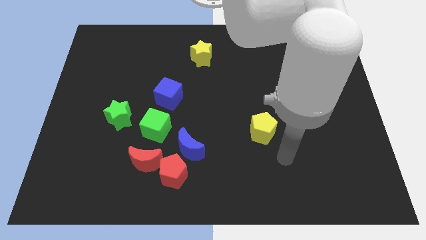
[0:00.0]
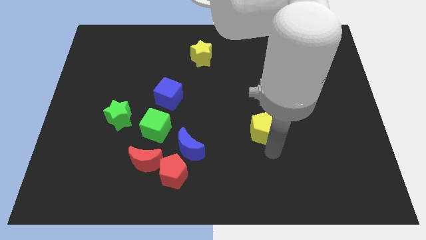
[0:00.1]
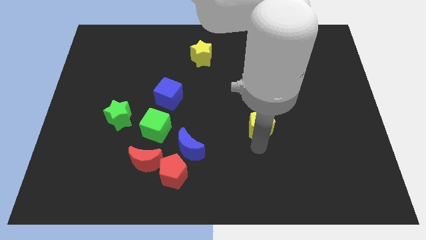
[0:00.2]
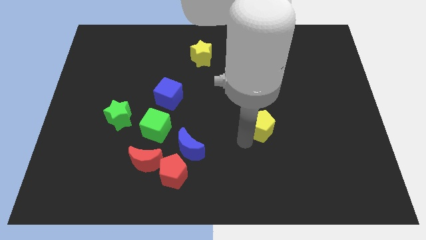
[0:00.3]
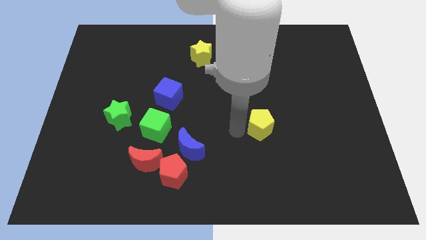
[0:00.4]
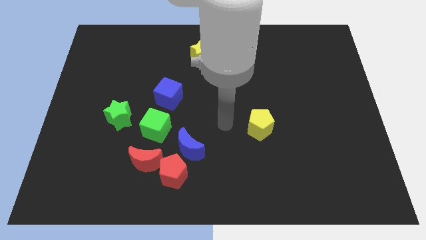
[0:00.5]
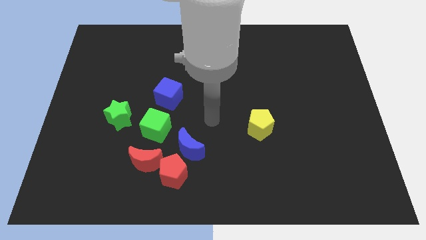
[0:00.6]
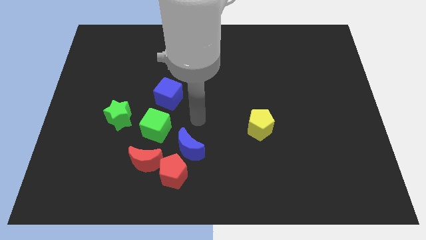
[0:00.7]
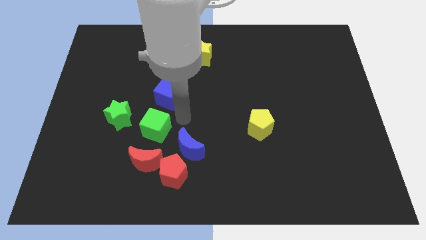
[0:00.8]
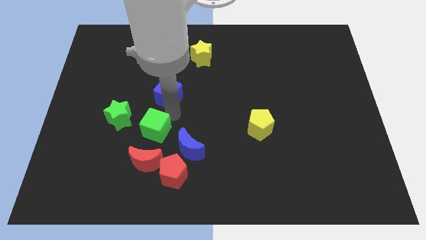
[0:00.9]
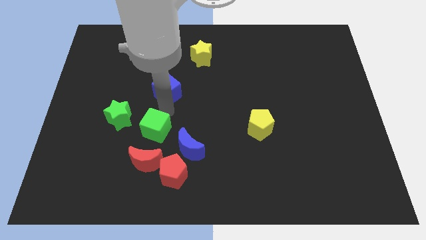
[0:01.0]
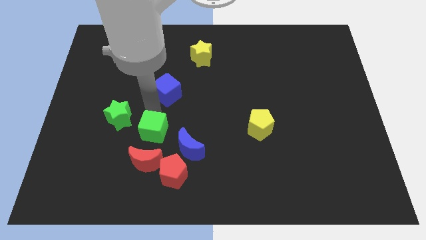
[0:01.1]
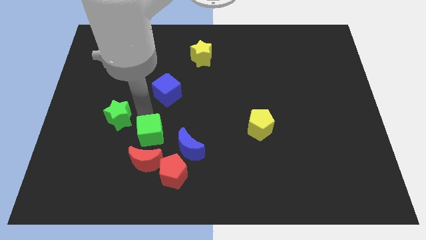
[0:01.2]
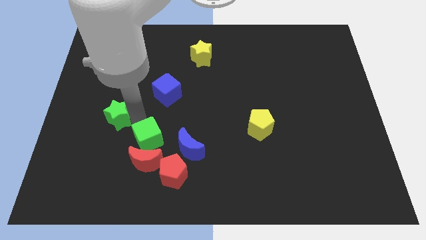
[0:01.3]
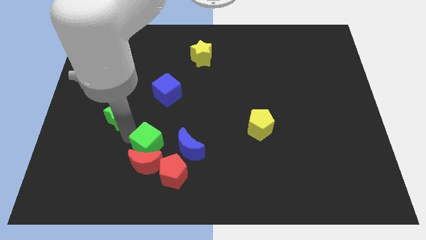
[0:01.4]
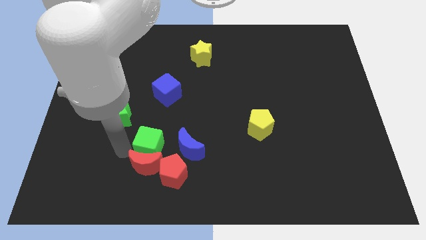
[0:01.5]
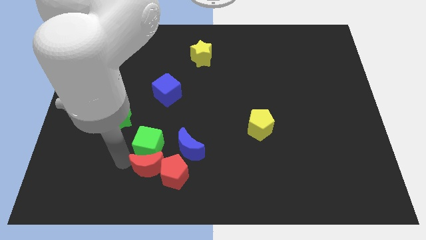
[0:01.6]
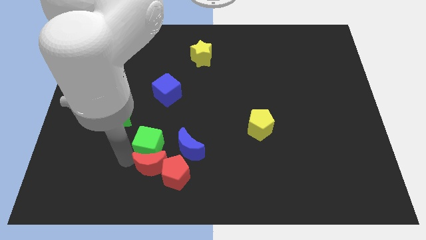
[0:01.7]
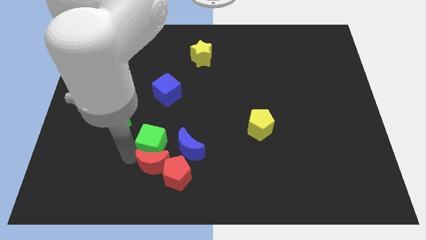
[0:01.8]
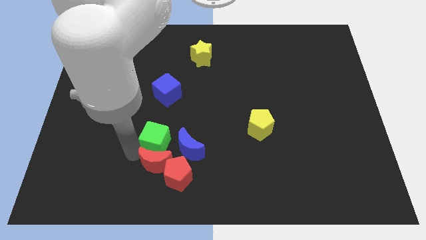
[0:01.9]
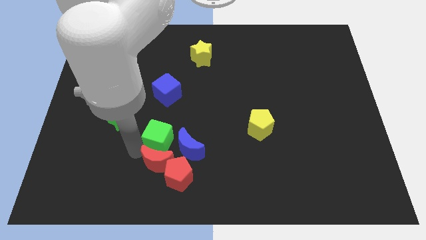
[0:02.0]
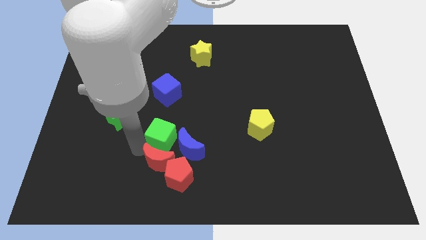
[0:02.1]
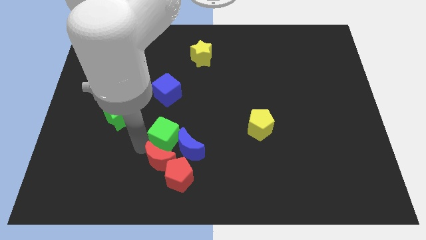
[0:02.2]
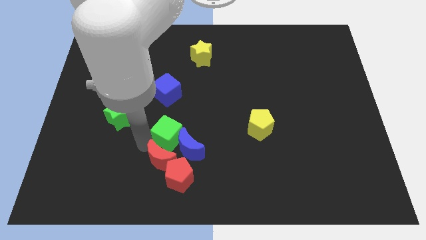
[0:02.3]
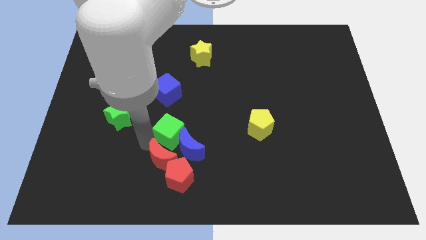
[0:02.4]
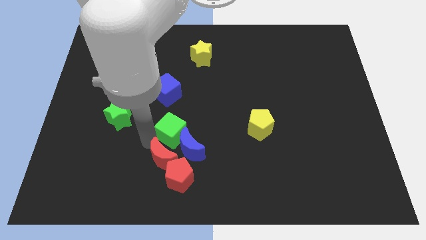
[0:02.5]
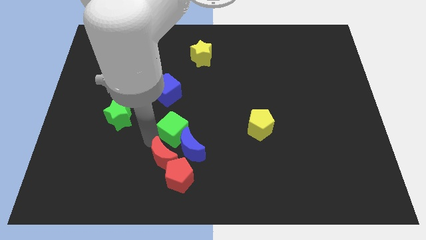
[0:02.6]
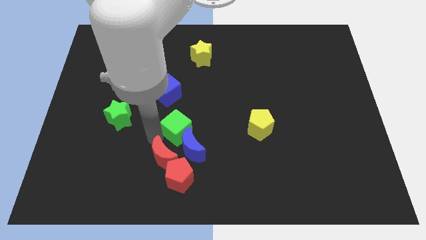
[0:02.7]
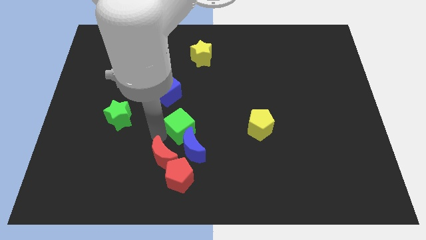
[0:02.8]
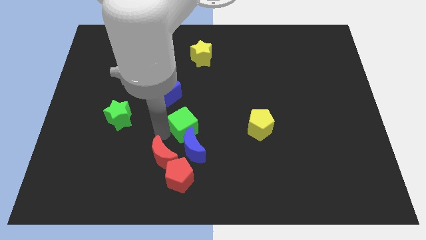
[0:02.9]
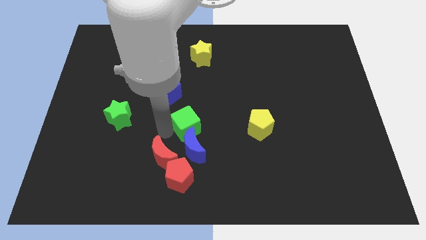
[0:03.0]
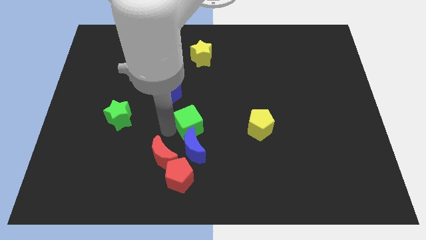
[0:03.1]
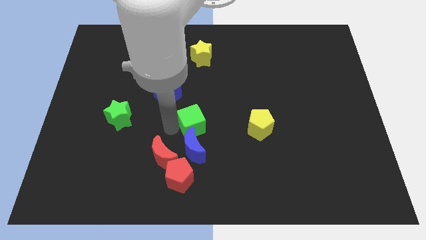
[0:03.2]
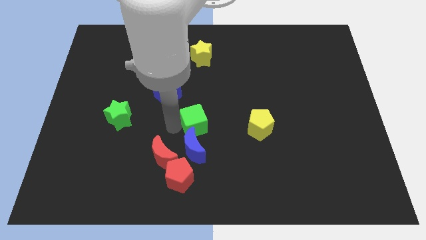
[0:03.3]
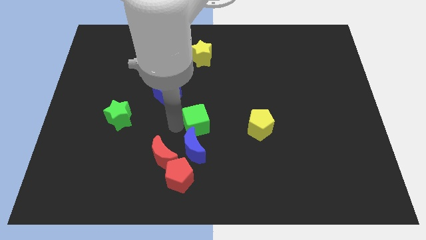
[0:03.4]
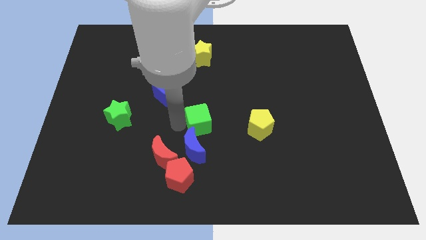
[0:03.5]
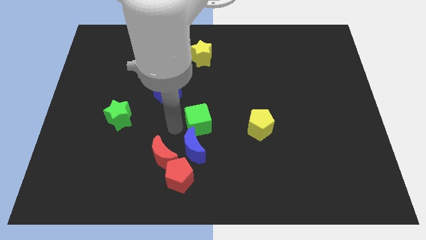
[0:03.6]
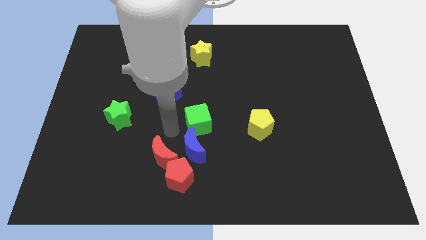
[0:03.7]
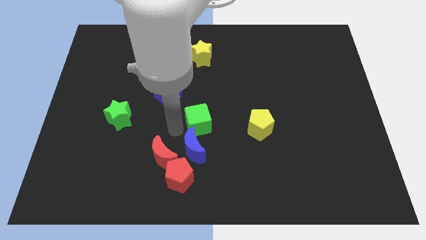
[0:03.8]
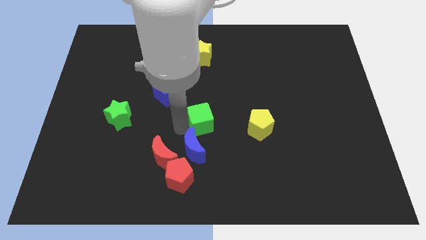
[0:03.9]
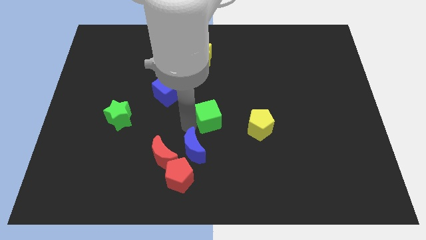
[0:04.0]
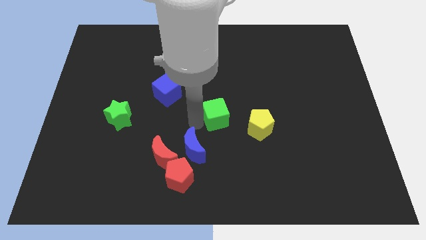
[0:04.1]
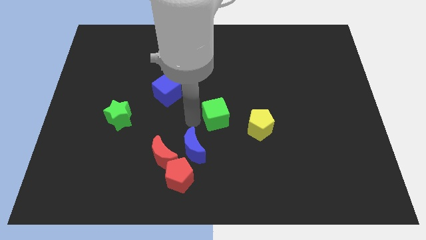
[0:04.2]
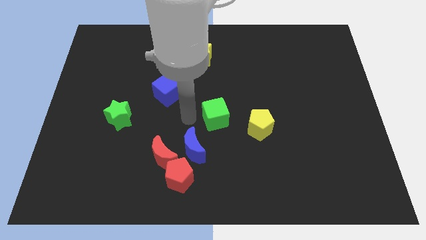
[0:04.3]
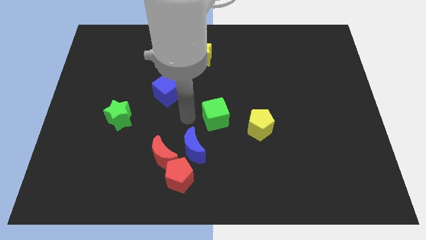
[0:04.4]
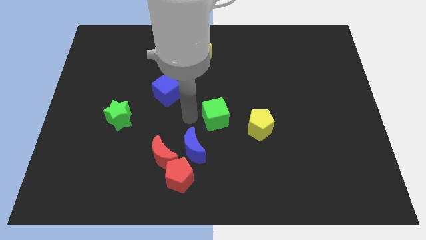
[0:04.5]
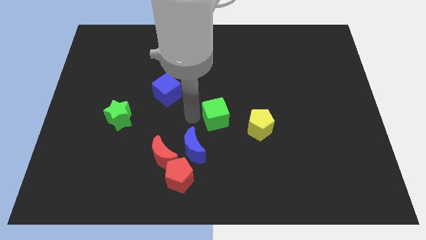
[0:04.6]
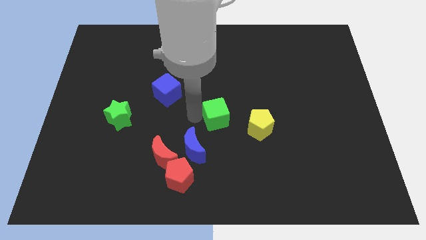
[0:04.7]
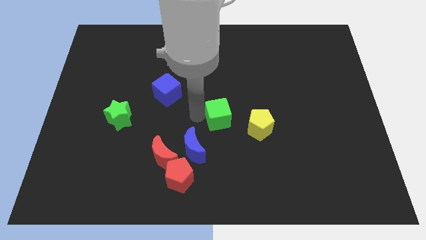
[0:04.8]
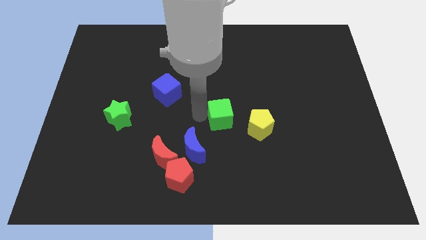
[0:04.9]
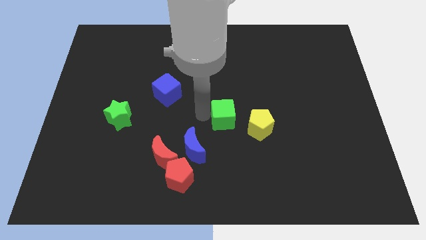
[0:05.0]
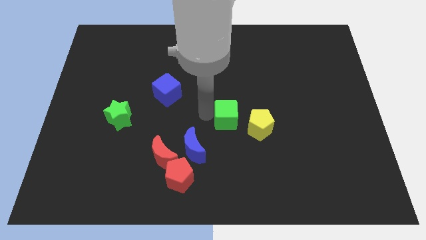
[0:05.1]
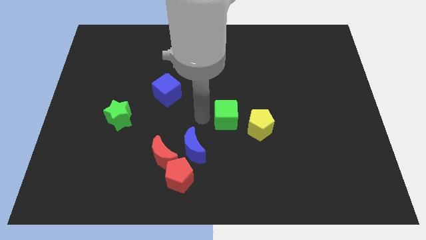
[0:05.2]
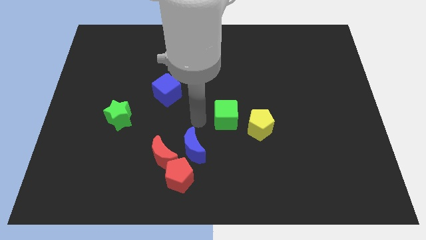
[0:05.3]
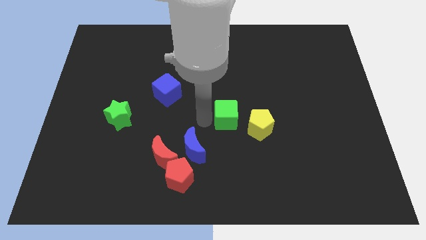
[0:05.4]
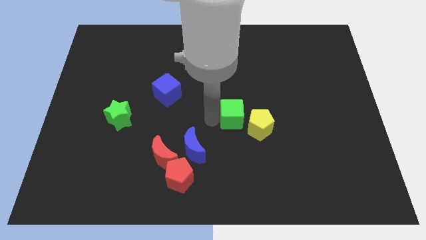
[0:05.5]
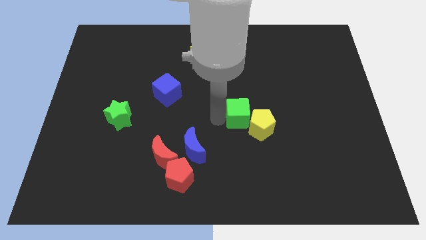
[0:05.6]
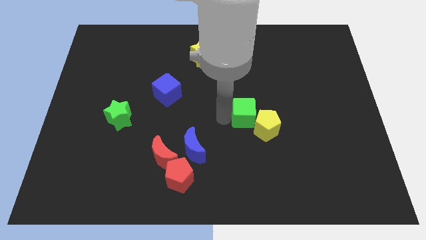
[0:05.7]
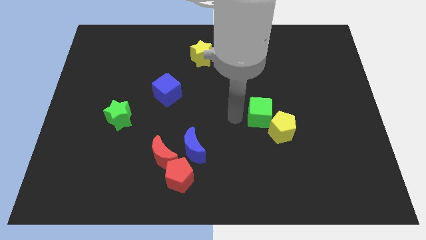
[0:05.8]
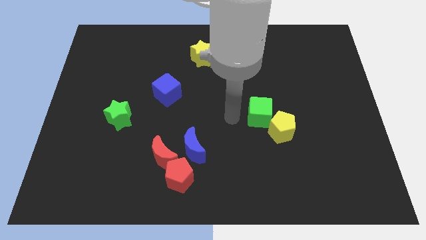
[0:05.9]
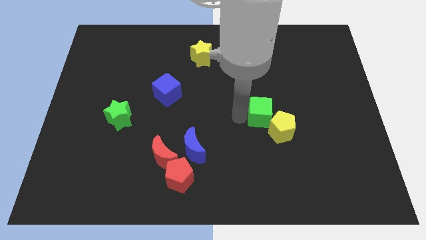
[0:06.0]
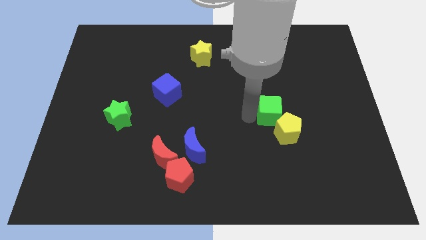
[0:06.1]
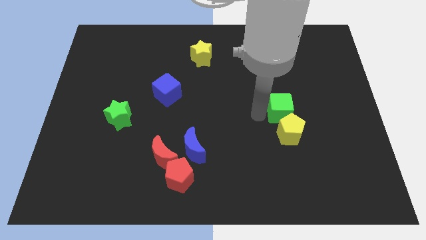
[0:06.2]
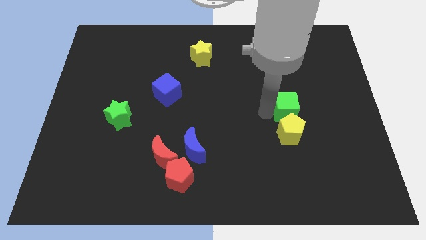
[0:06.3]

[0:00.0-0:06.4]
put the green cube diagonally up and to the right of the yellow pentagon
